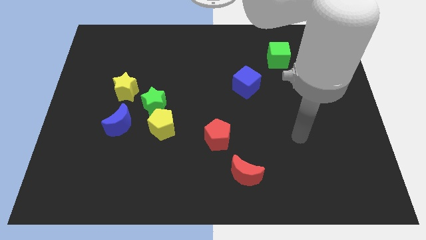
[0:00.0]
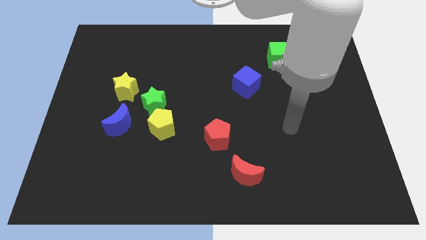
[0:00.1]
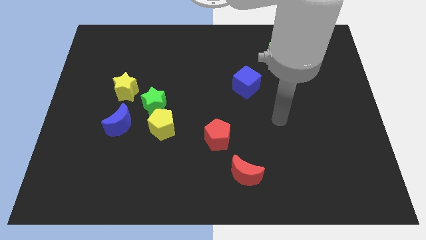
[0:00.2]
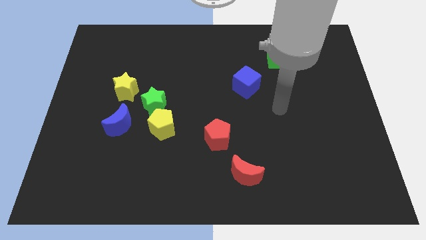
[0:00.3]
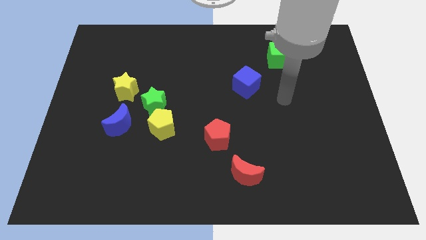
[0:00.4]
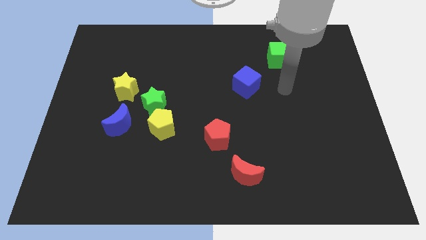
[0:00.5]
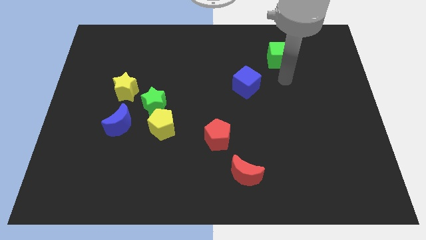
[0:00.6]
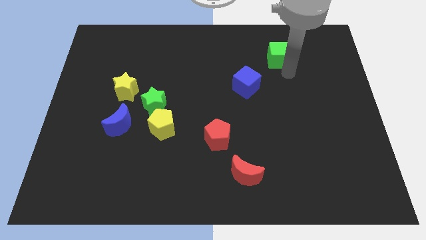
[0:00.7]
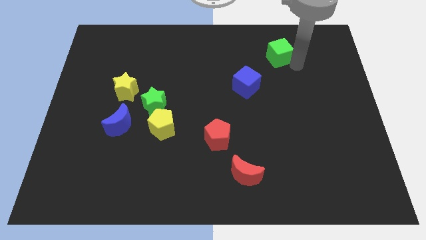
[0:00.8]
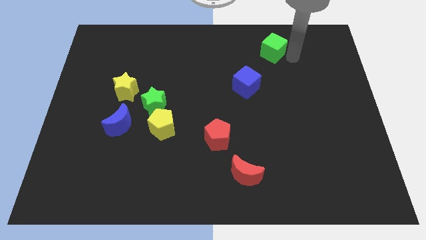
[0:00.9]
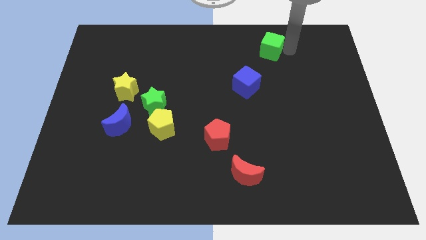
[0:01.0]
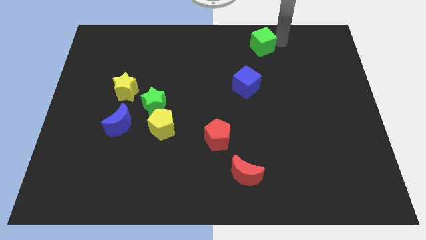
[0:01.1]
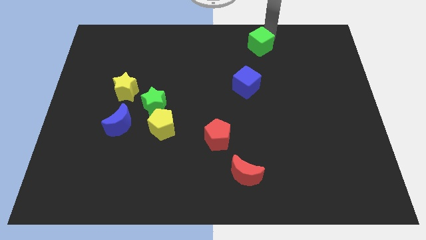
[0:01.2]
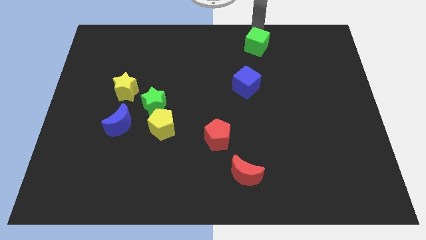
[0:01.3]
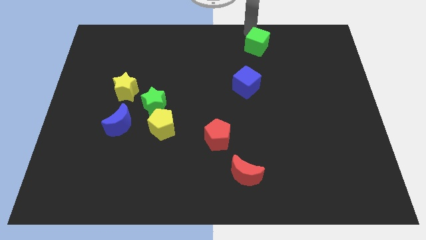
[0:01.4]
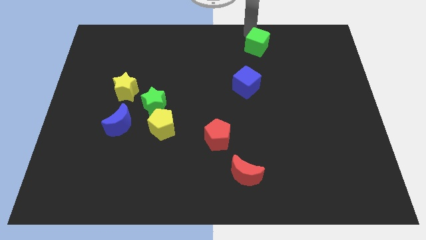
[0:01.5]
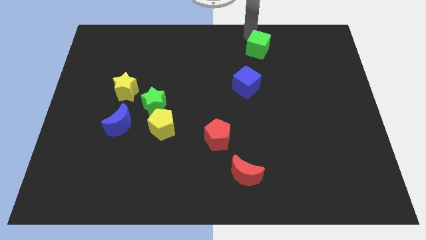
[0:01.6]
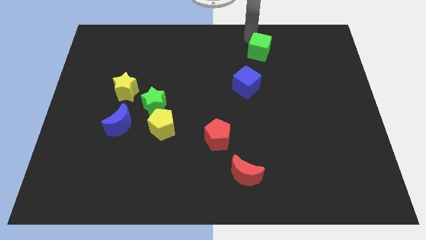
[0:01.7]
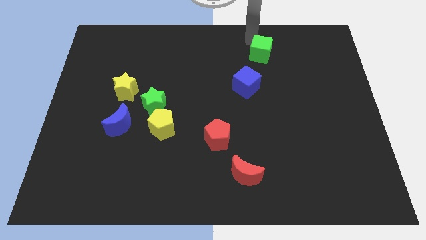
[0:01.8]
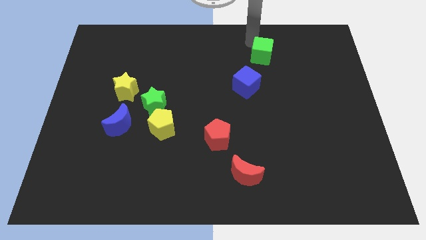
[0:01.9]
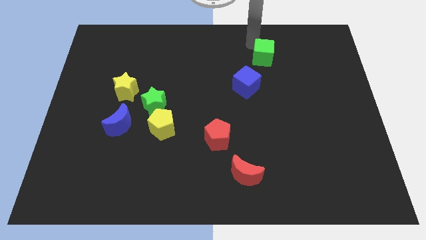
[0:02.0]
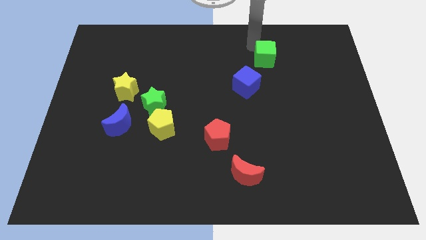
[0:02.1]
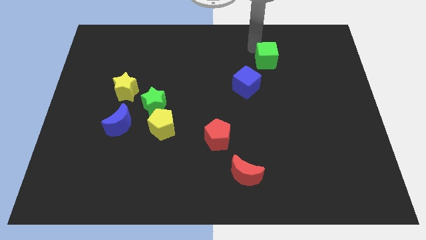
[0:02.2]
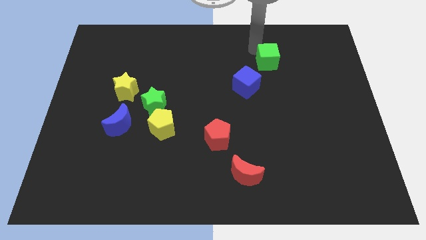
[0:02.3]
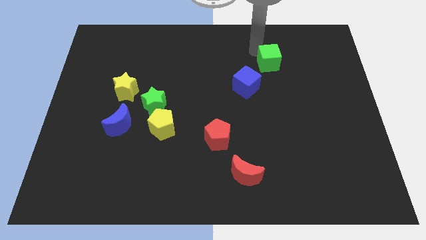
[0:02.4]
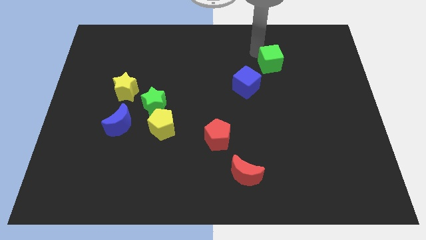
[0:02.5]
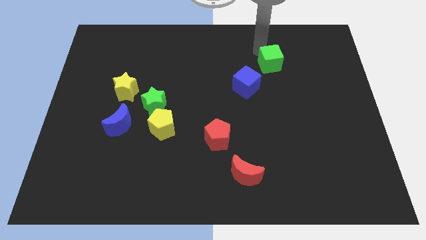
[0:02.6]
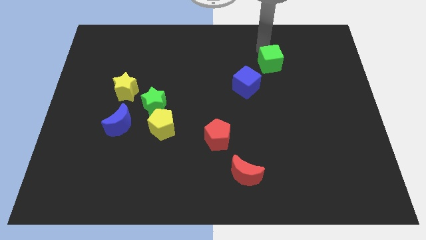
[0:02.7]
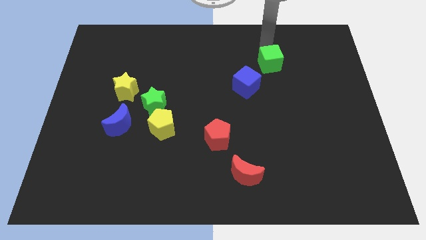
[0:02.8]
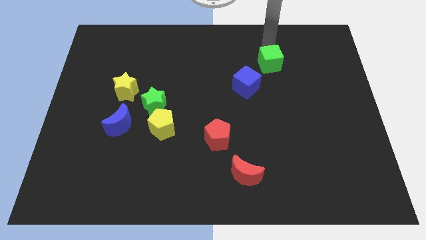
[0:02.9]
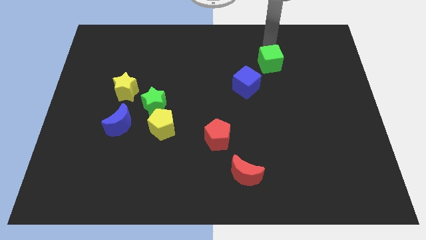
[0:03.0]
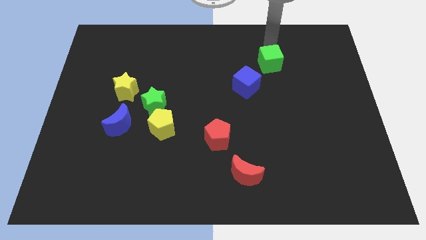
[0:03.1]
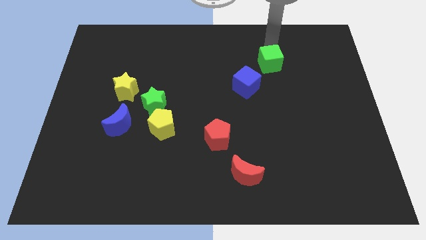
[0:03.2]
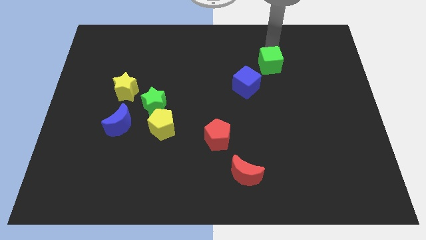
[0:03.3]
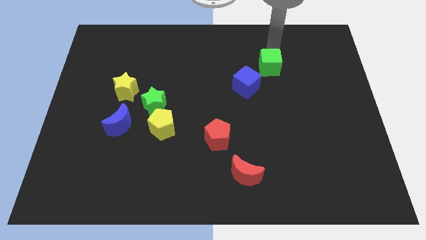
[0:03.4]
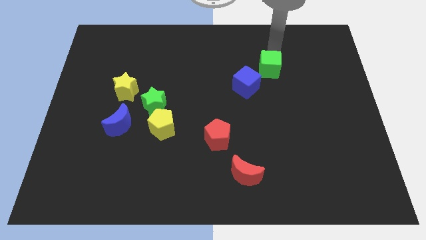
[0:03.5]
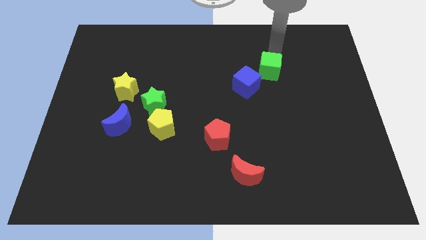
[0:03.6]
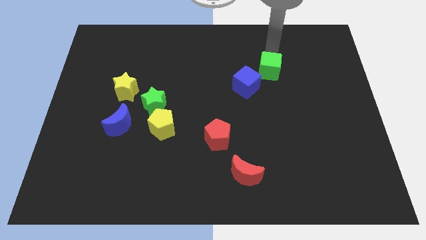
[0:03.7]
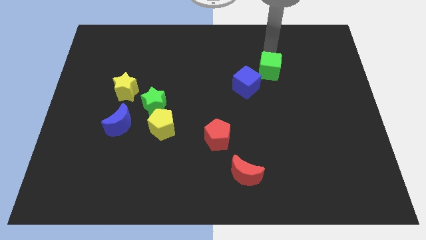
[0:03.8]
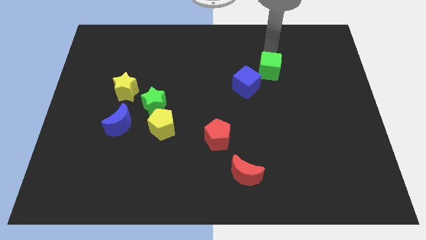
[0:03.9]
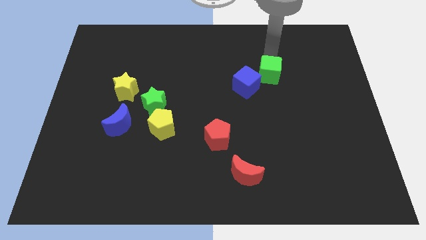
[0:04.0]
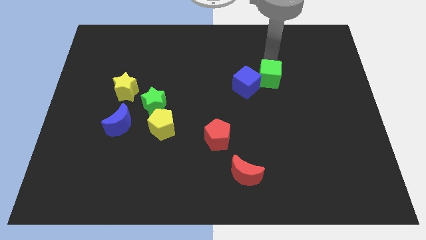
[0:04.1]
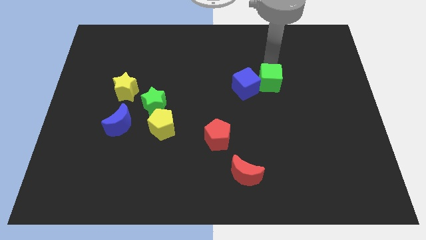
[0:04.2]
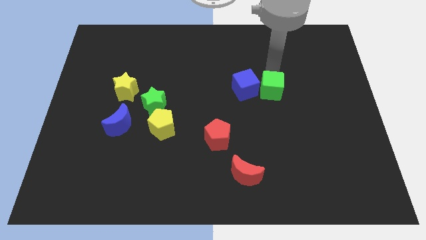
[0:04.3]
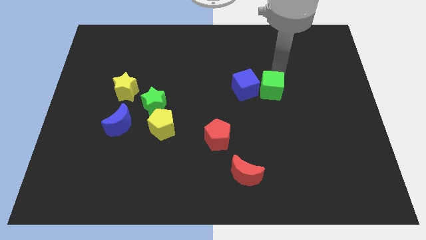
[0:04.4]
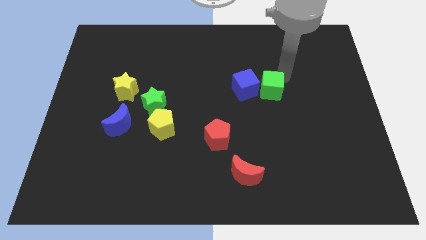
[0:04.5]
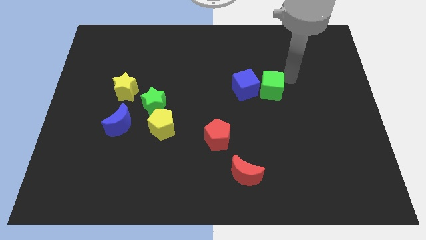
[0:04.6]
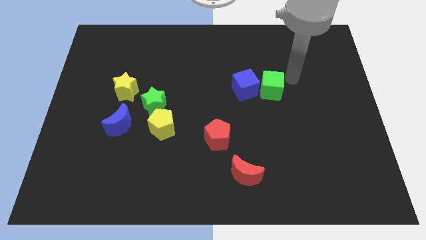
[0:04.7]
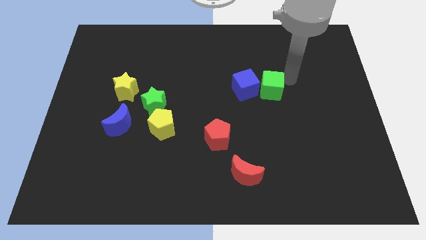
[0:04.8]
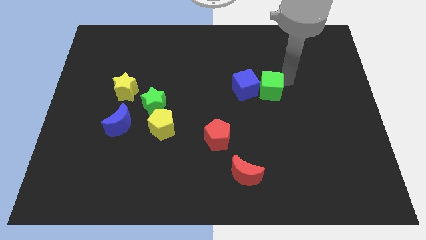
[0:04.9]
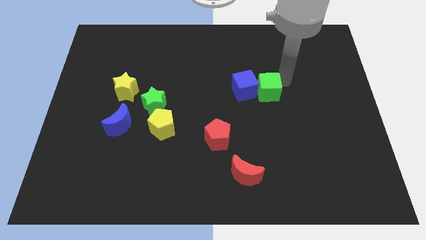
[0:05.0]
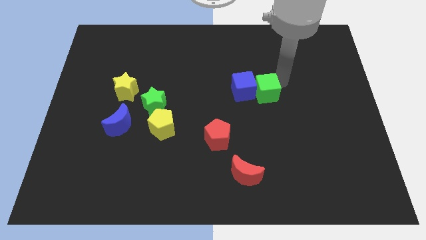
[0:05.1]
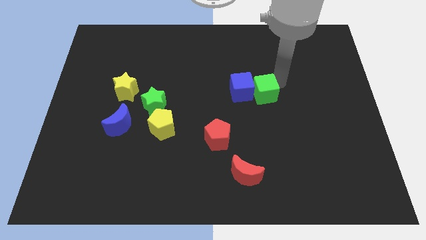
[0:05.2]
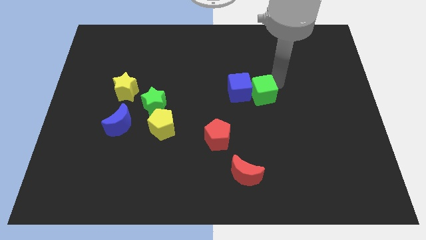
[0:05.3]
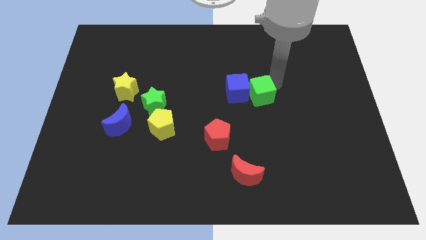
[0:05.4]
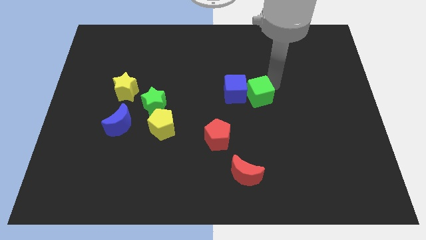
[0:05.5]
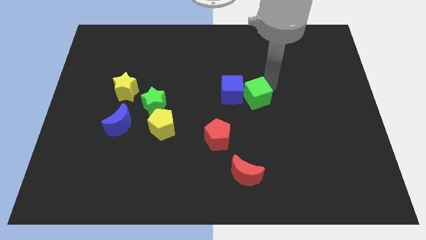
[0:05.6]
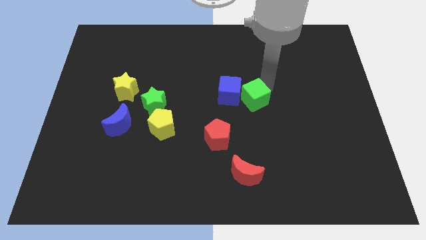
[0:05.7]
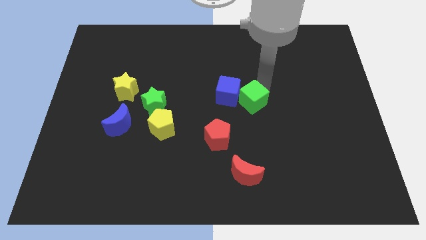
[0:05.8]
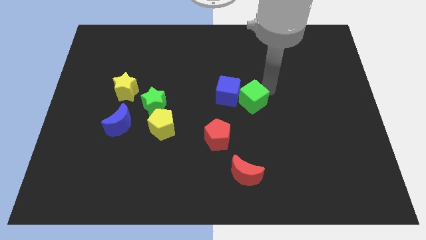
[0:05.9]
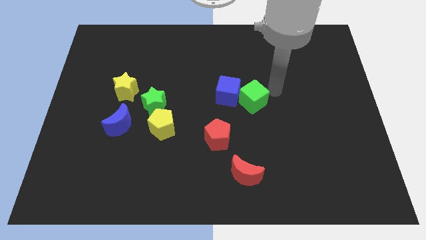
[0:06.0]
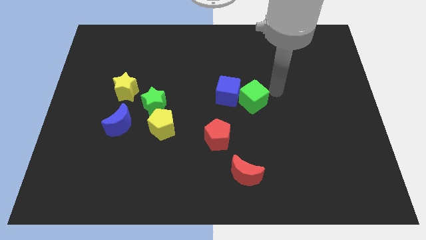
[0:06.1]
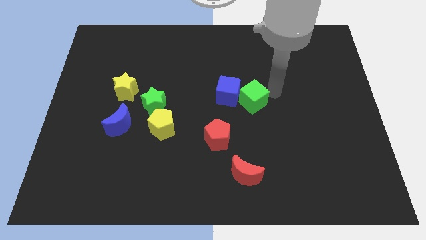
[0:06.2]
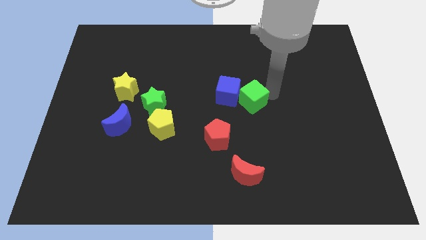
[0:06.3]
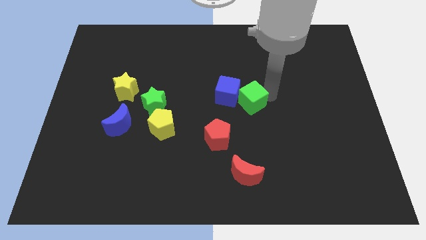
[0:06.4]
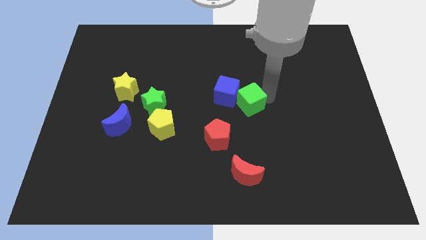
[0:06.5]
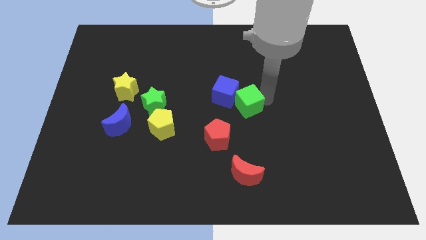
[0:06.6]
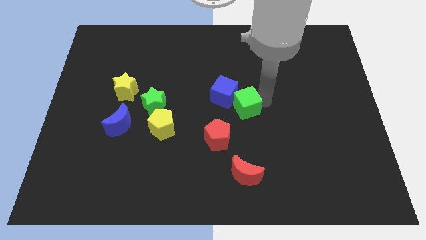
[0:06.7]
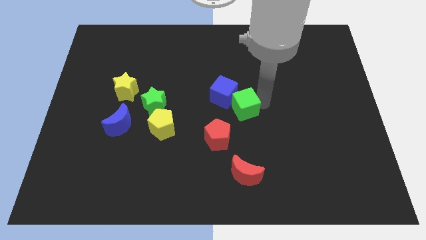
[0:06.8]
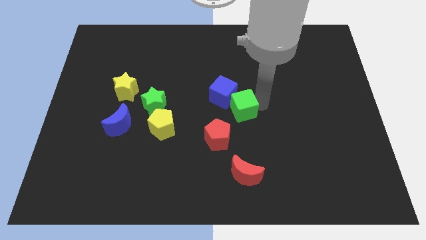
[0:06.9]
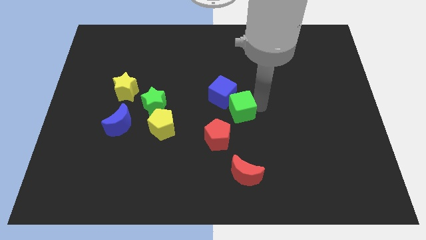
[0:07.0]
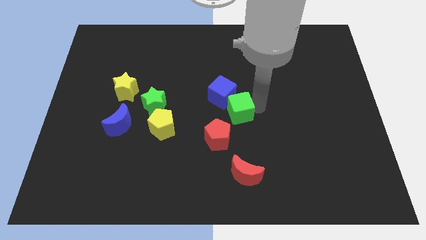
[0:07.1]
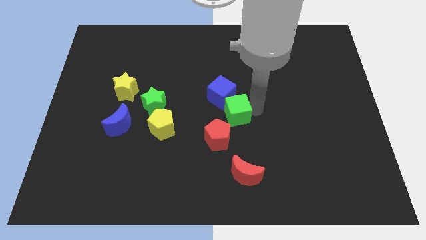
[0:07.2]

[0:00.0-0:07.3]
slide the green cube diagonally downwards and left

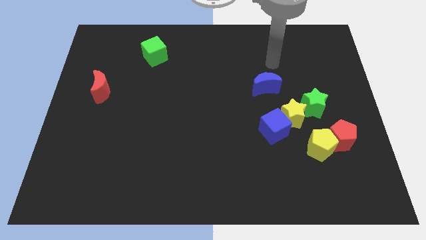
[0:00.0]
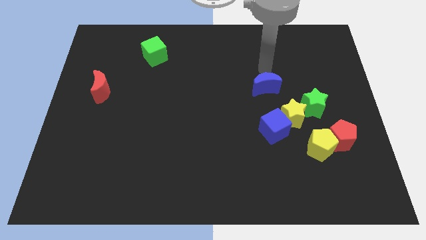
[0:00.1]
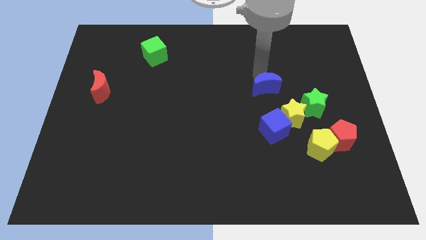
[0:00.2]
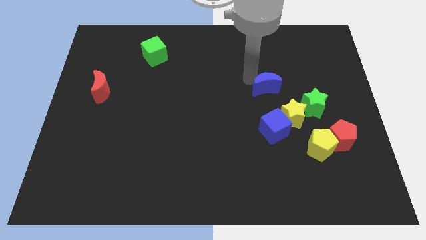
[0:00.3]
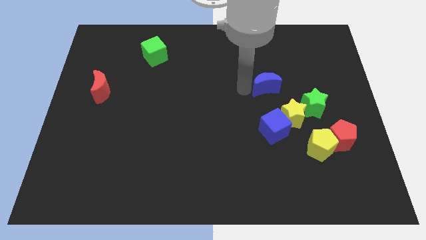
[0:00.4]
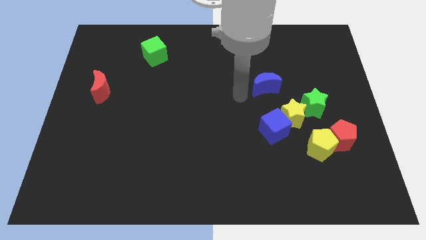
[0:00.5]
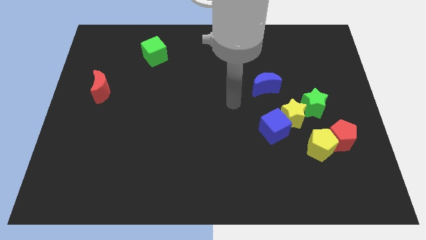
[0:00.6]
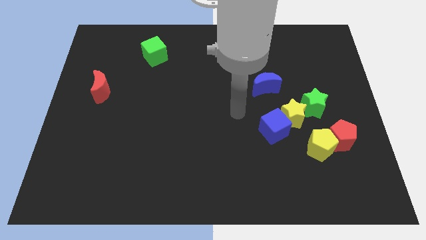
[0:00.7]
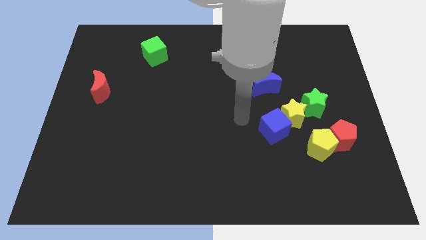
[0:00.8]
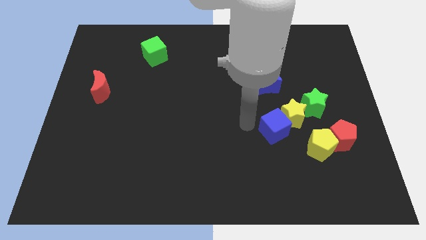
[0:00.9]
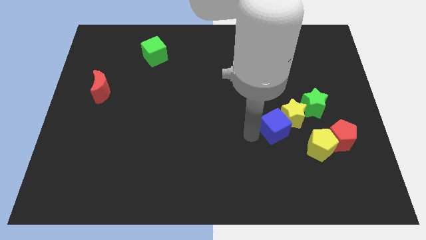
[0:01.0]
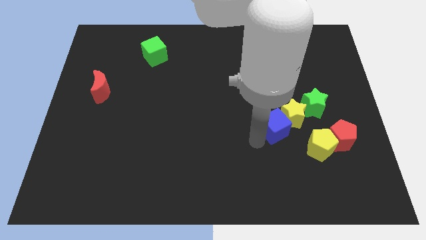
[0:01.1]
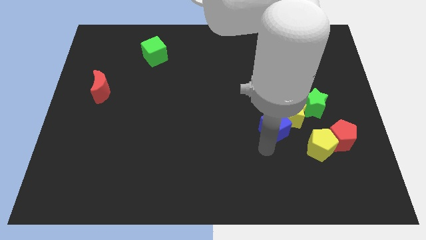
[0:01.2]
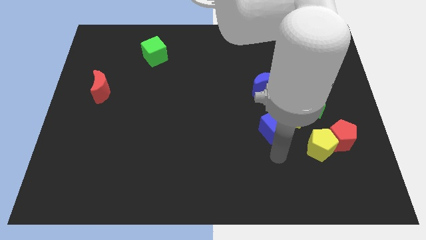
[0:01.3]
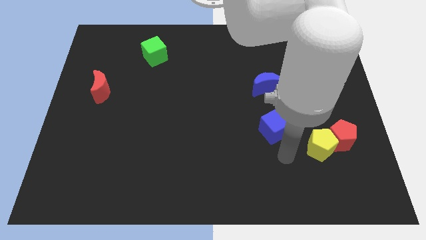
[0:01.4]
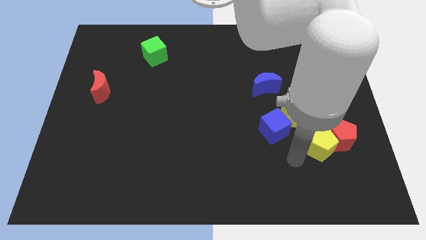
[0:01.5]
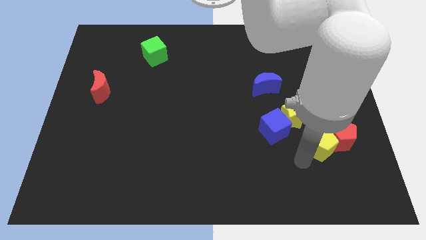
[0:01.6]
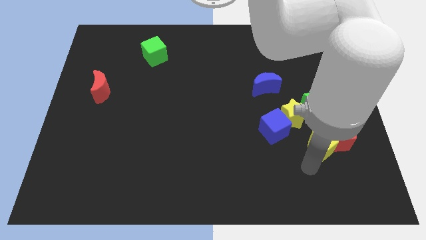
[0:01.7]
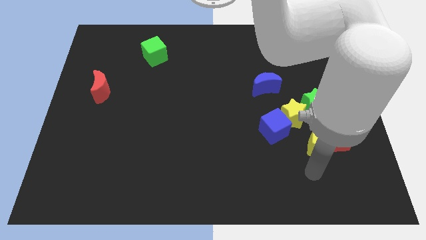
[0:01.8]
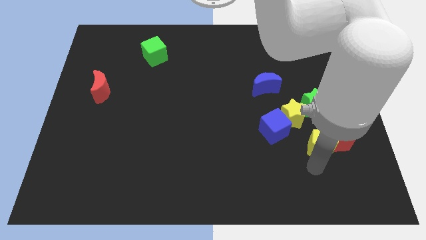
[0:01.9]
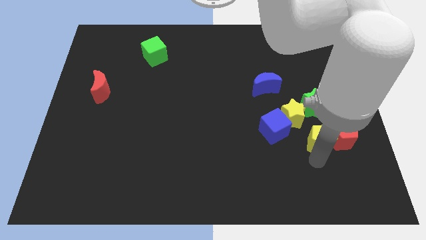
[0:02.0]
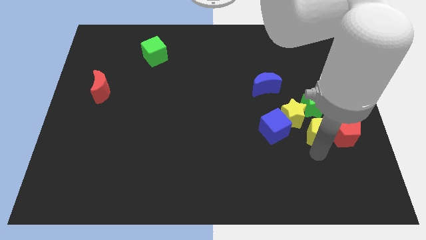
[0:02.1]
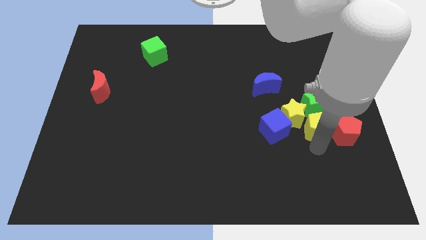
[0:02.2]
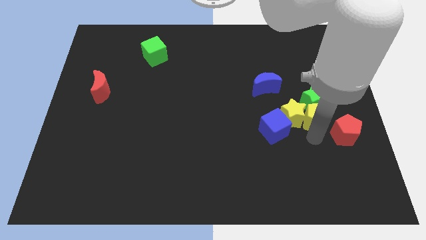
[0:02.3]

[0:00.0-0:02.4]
slightly move the yellow pentagon upwards
